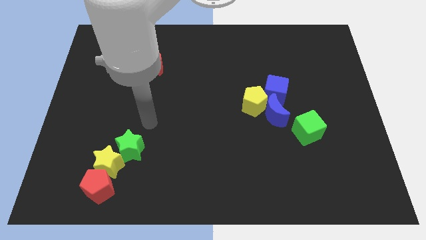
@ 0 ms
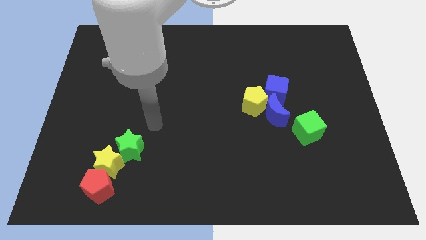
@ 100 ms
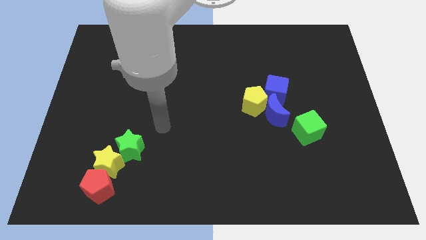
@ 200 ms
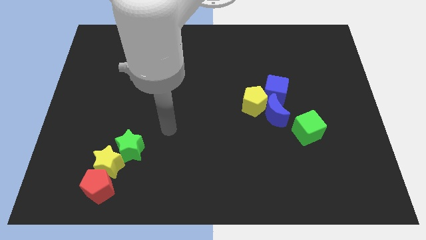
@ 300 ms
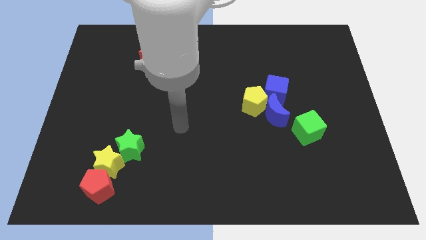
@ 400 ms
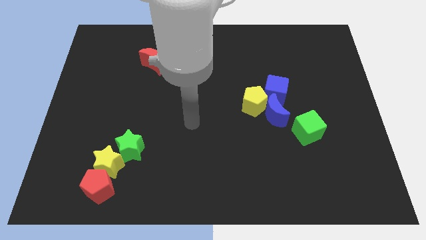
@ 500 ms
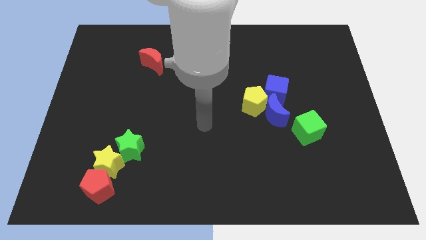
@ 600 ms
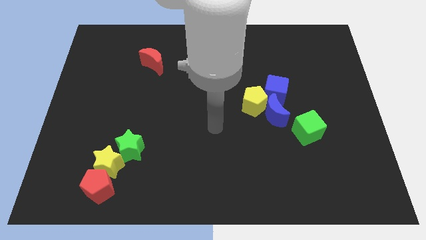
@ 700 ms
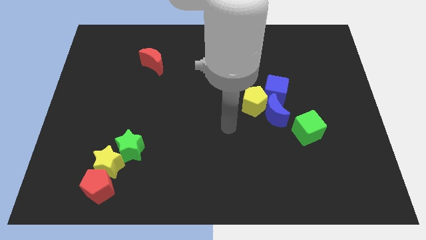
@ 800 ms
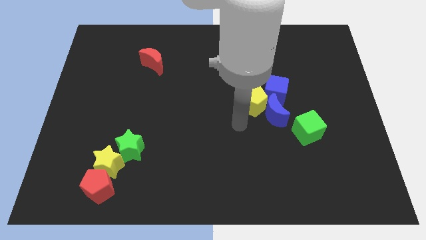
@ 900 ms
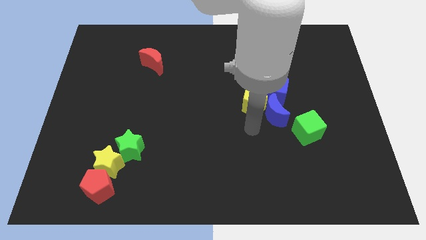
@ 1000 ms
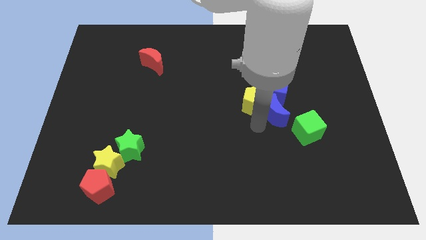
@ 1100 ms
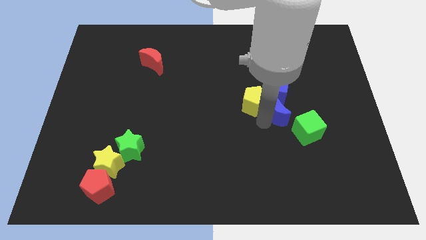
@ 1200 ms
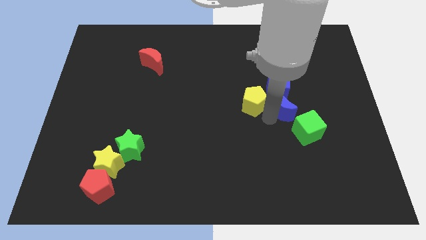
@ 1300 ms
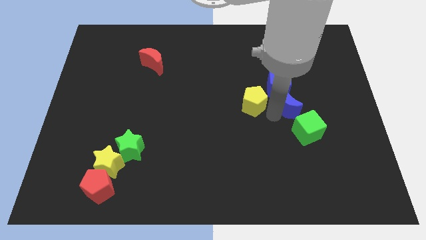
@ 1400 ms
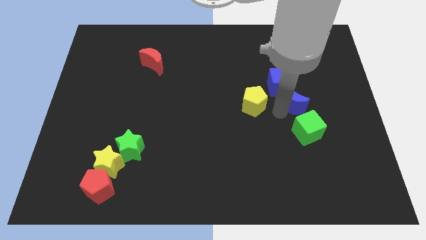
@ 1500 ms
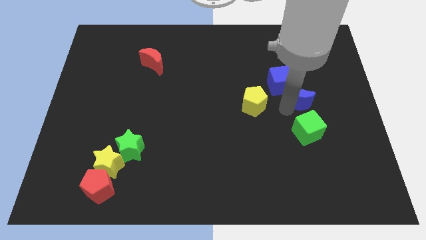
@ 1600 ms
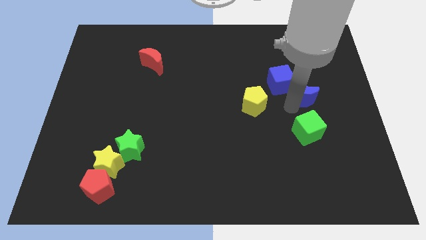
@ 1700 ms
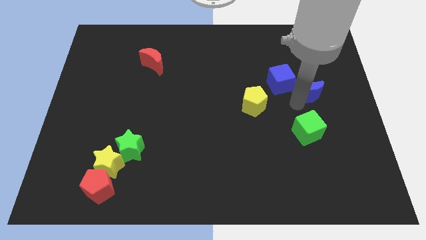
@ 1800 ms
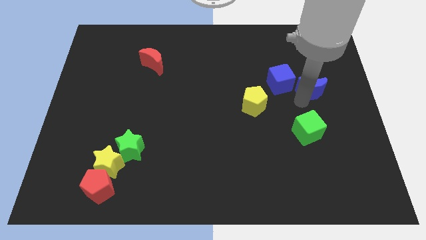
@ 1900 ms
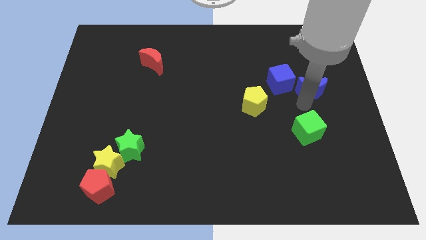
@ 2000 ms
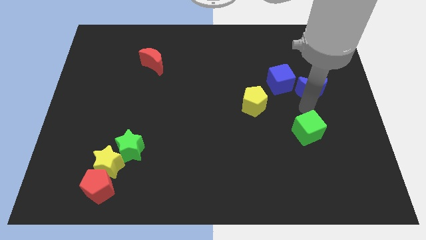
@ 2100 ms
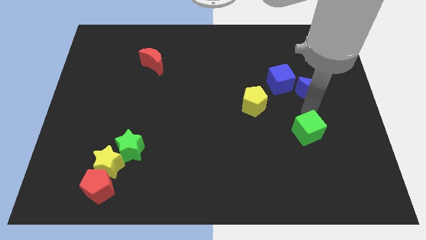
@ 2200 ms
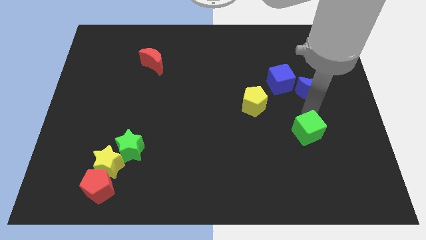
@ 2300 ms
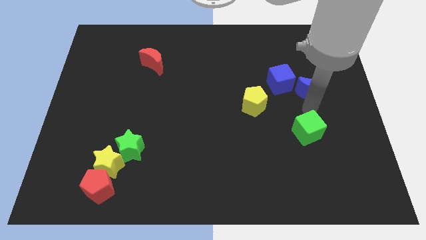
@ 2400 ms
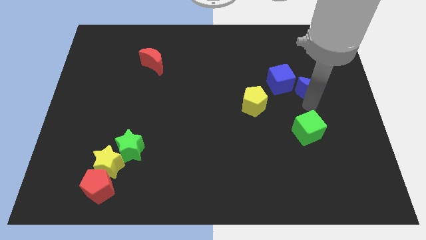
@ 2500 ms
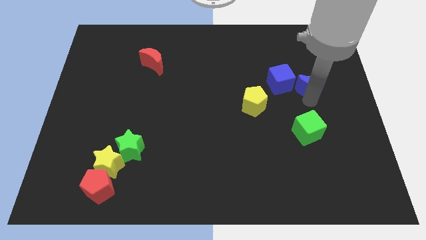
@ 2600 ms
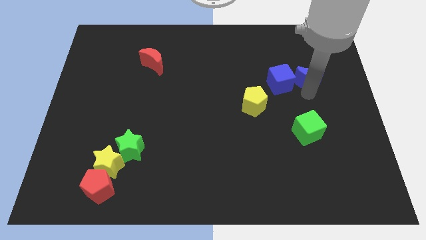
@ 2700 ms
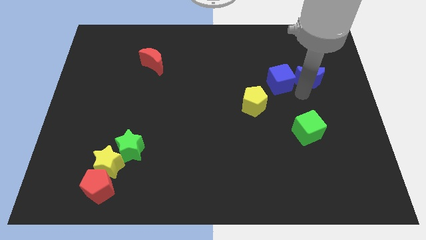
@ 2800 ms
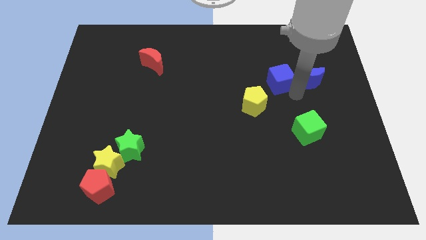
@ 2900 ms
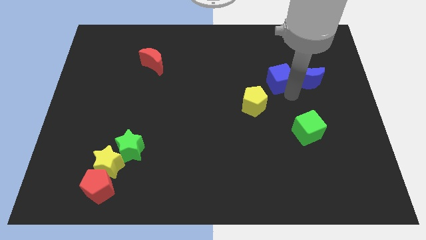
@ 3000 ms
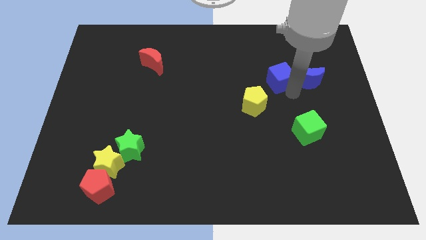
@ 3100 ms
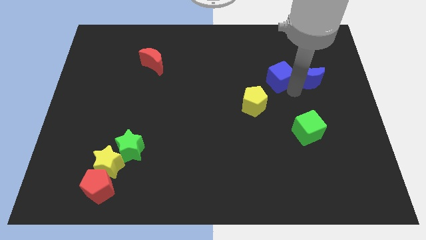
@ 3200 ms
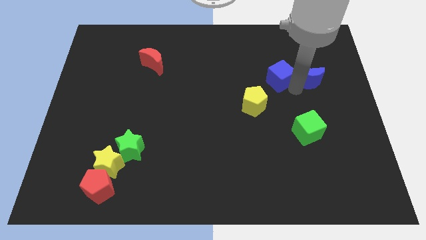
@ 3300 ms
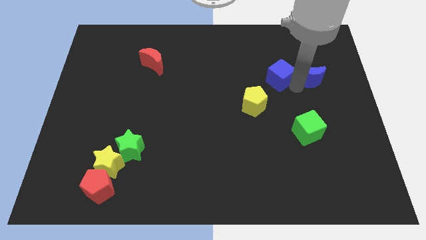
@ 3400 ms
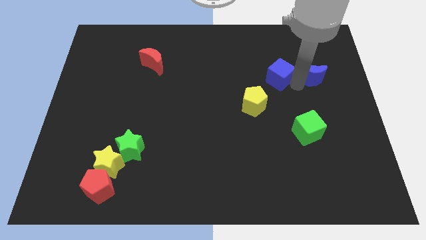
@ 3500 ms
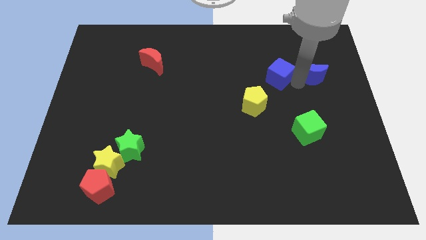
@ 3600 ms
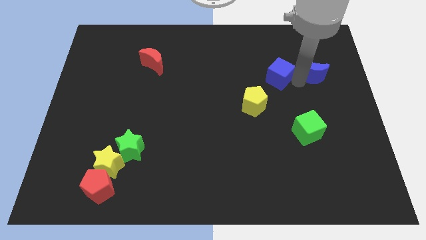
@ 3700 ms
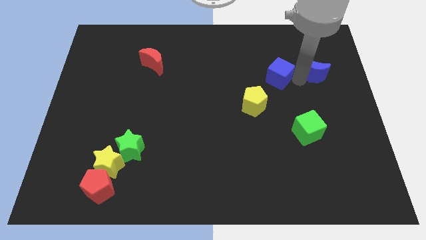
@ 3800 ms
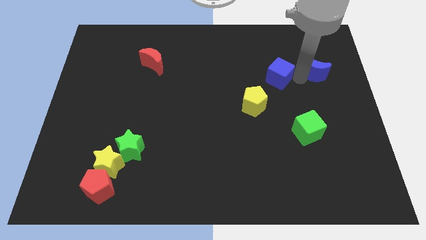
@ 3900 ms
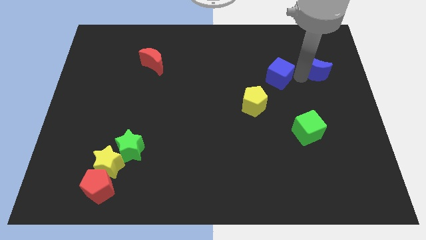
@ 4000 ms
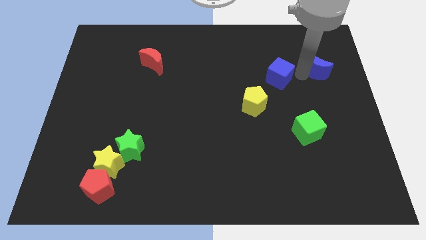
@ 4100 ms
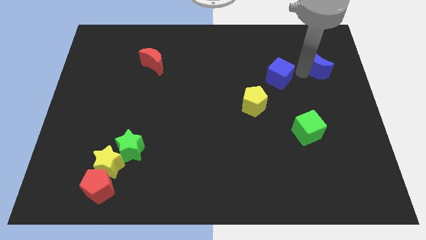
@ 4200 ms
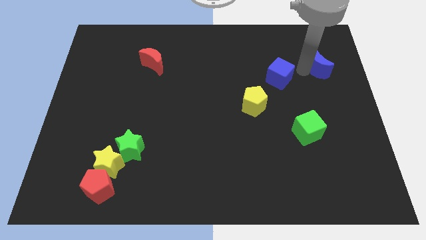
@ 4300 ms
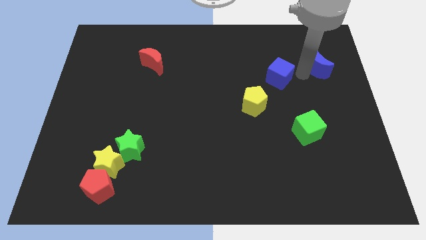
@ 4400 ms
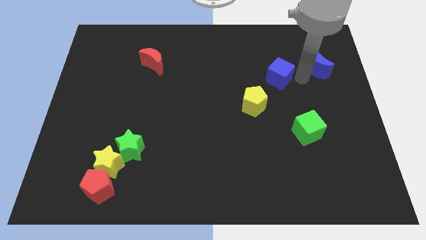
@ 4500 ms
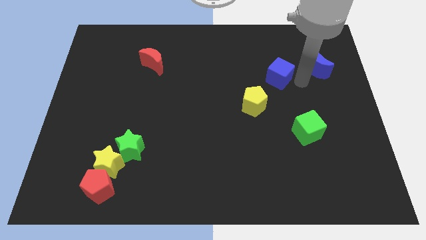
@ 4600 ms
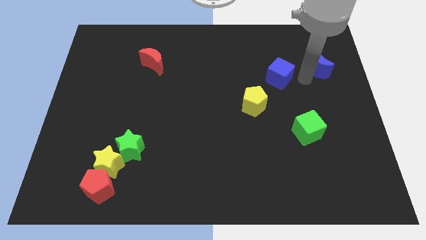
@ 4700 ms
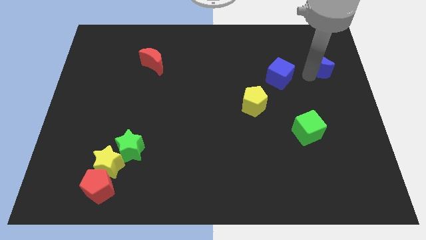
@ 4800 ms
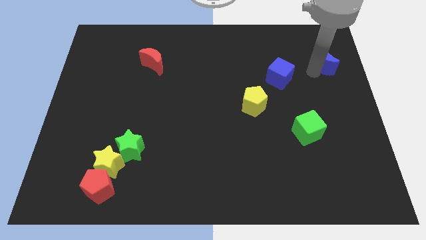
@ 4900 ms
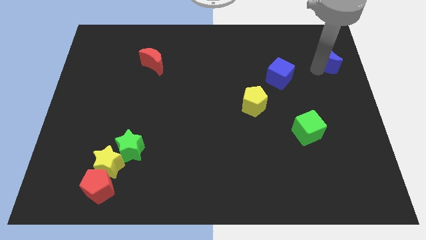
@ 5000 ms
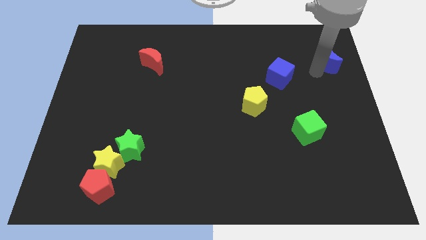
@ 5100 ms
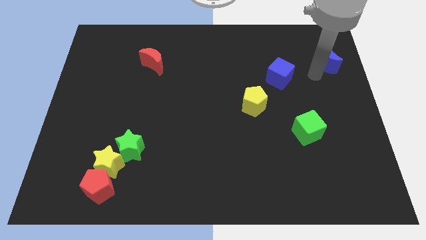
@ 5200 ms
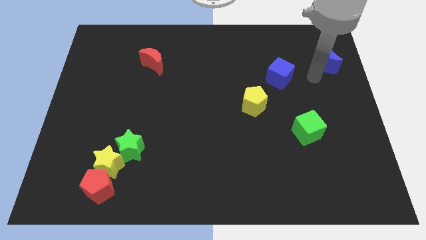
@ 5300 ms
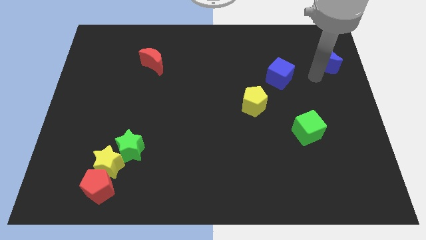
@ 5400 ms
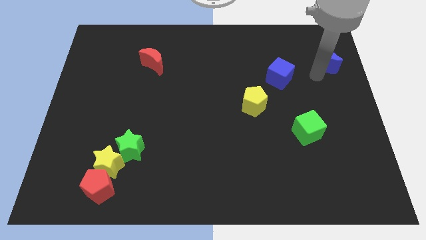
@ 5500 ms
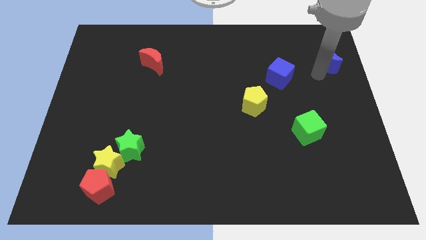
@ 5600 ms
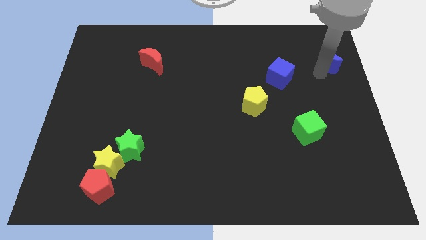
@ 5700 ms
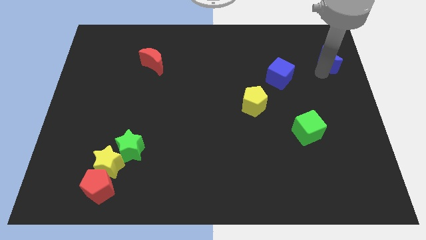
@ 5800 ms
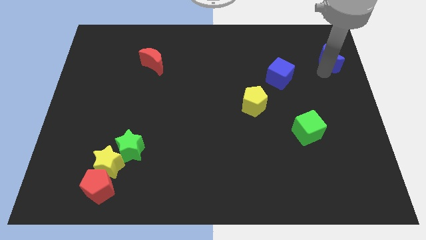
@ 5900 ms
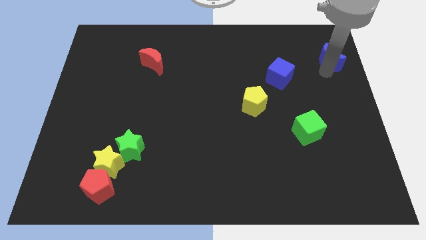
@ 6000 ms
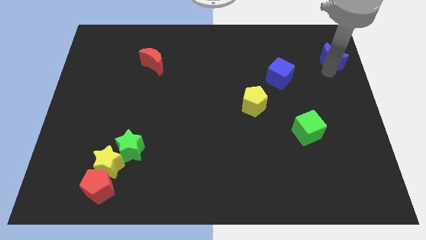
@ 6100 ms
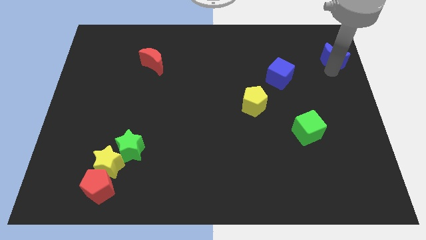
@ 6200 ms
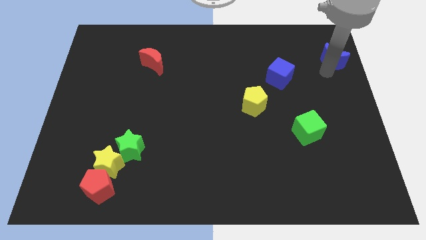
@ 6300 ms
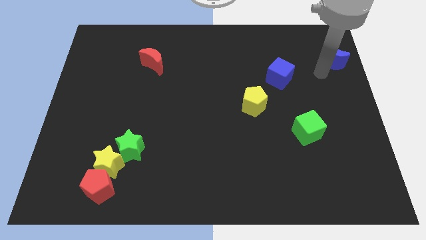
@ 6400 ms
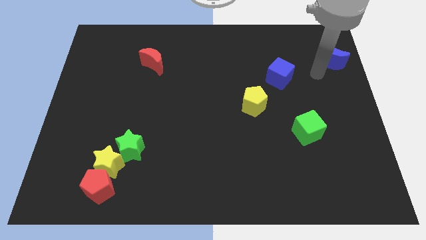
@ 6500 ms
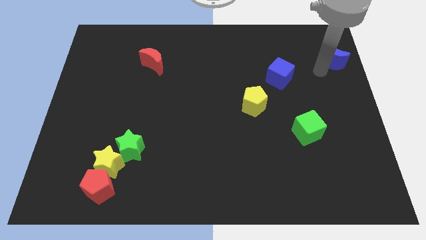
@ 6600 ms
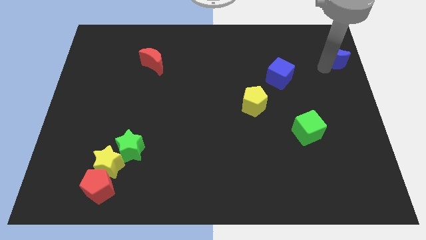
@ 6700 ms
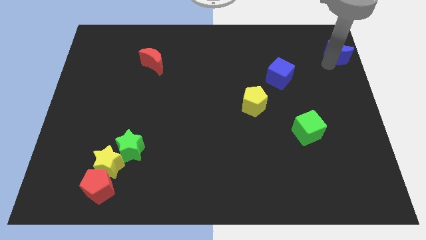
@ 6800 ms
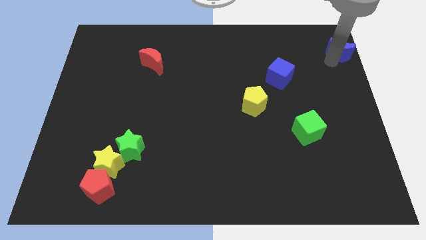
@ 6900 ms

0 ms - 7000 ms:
move the blue moon to the upper right corner
